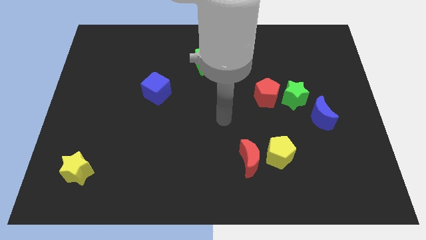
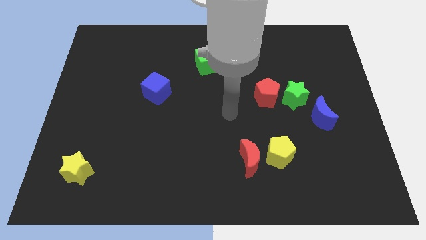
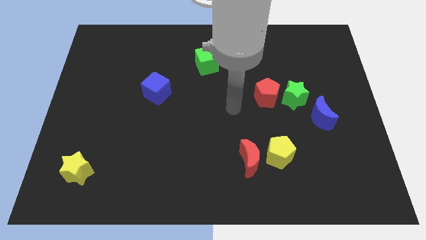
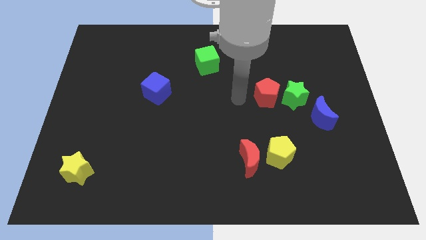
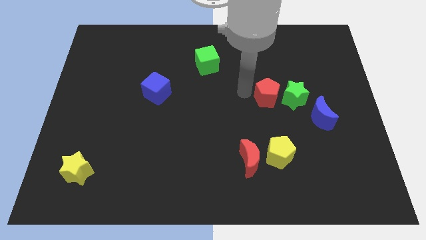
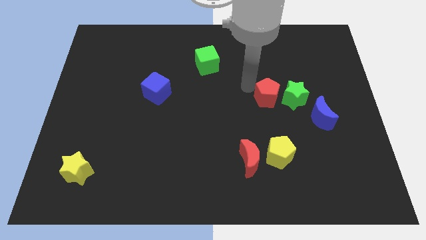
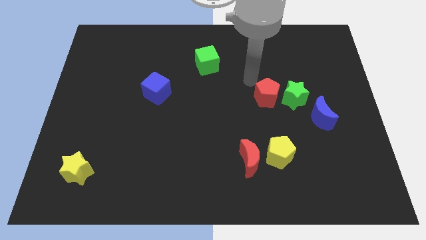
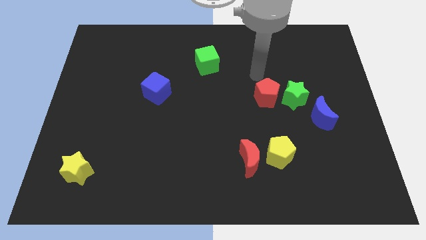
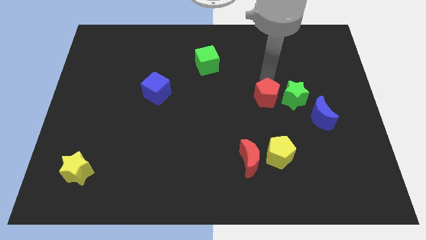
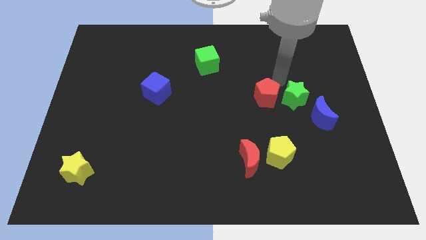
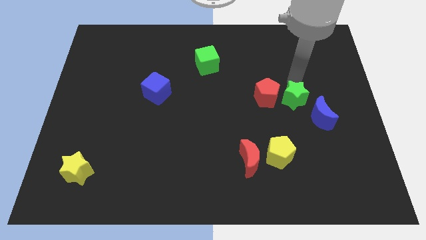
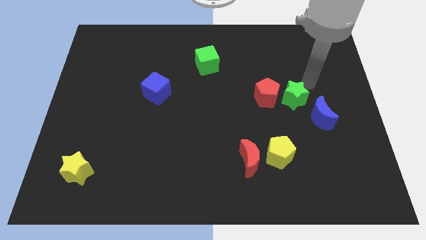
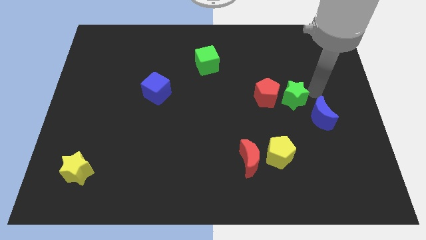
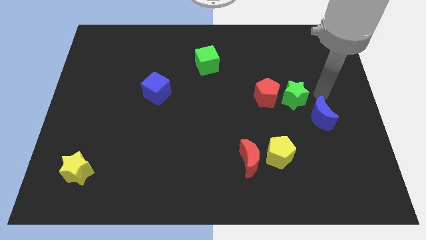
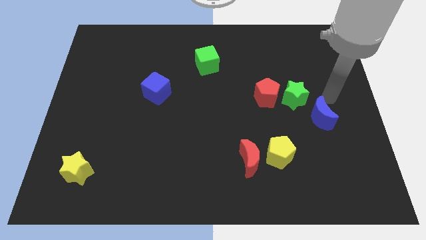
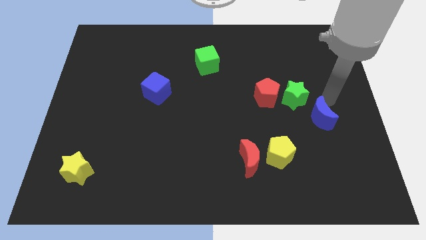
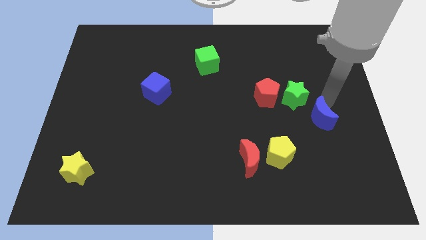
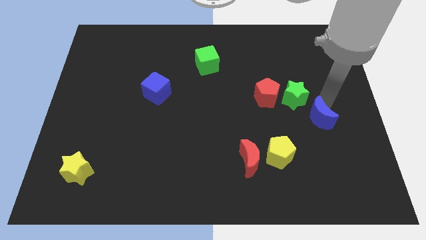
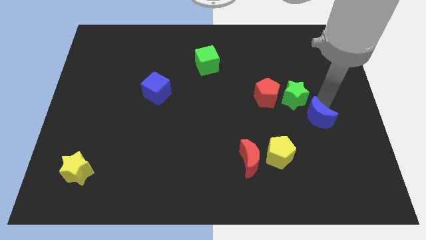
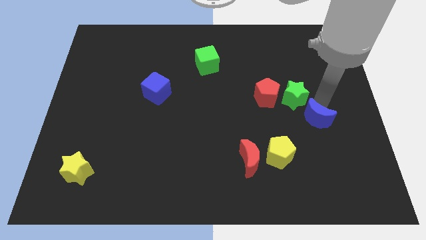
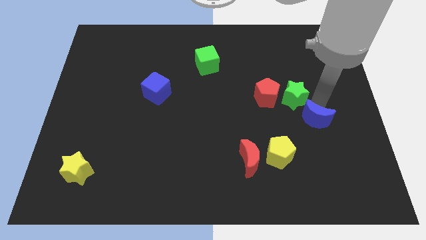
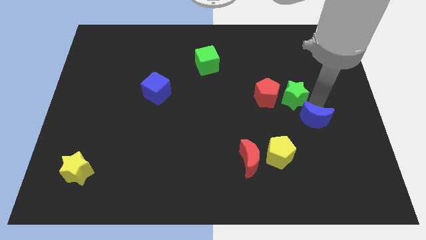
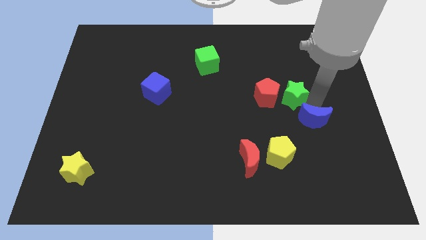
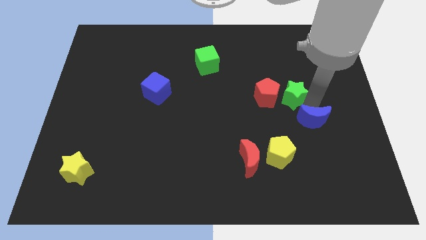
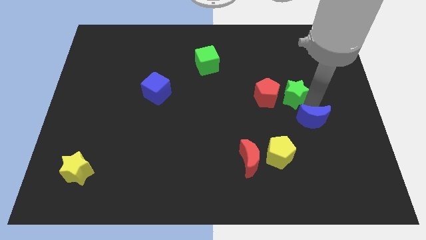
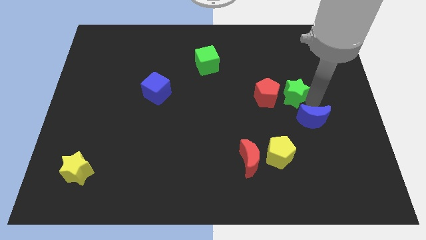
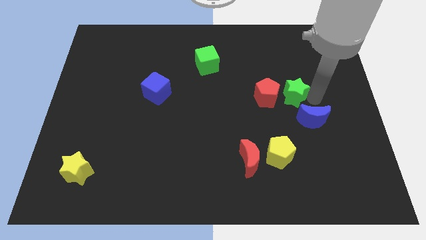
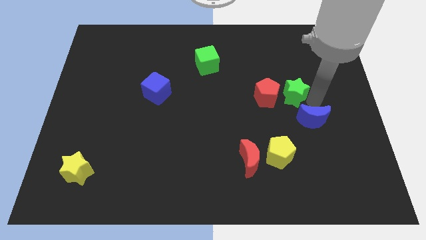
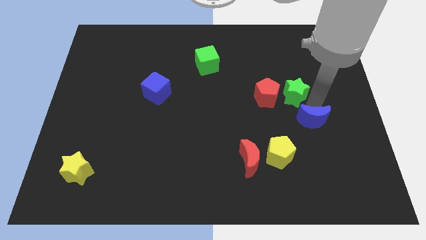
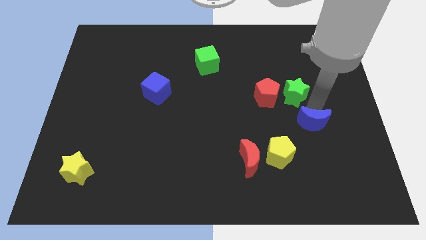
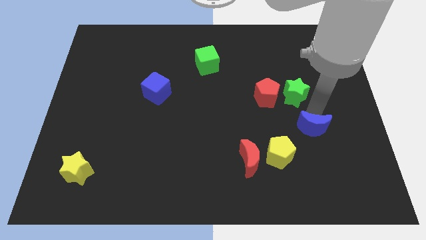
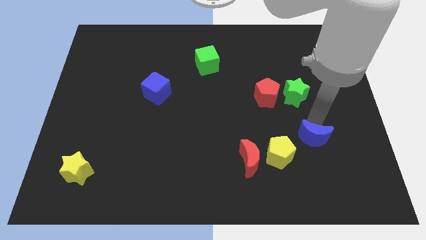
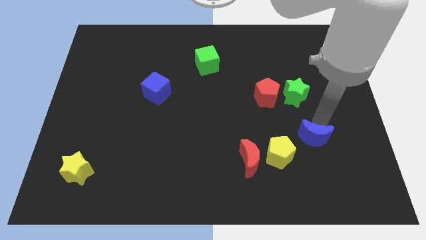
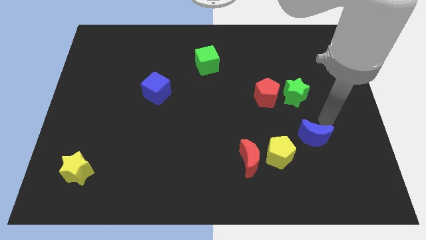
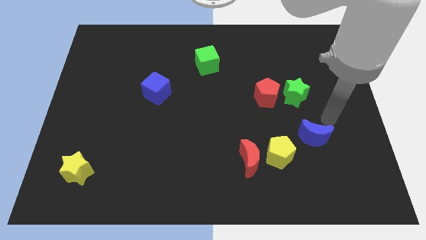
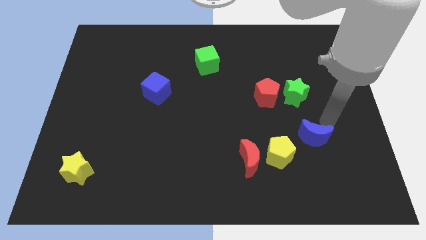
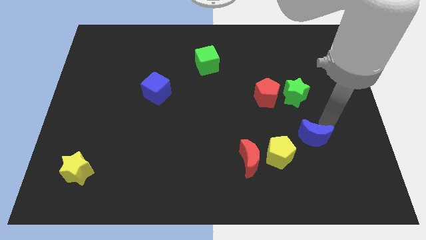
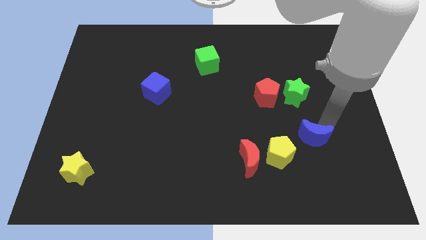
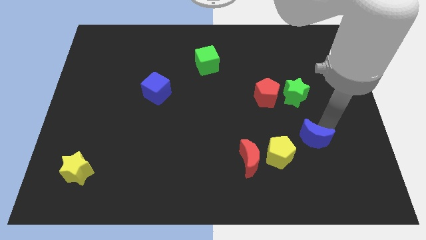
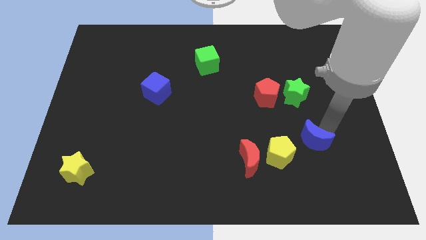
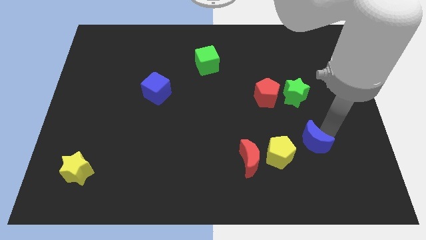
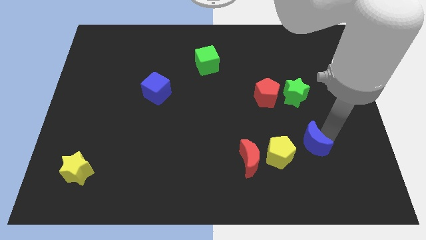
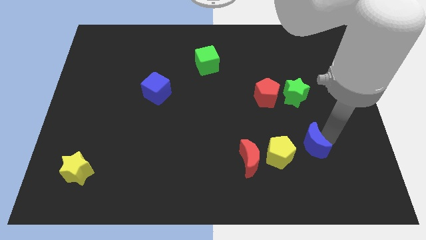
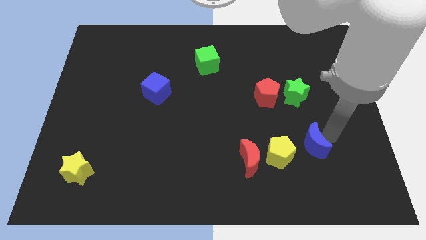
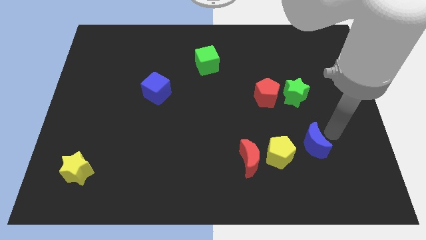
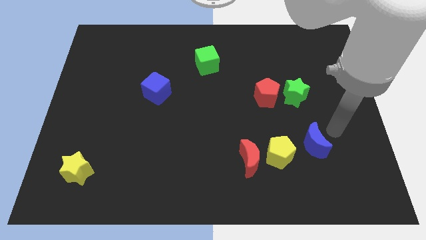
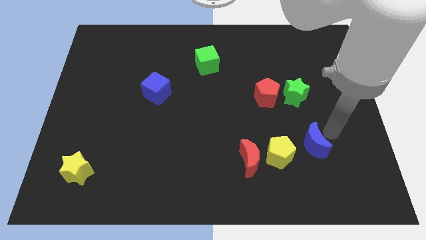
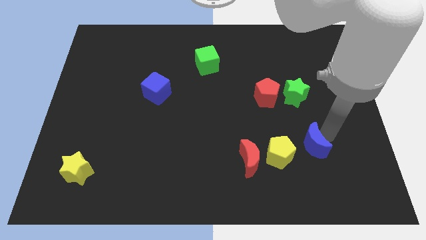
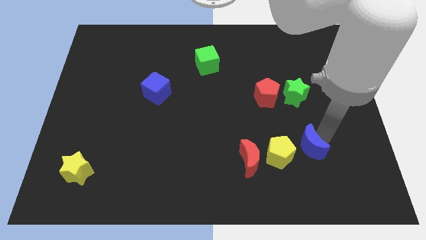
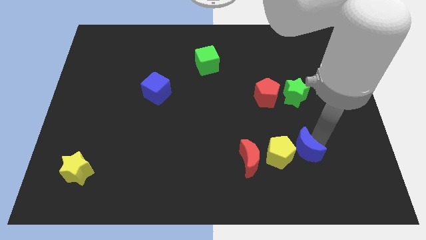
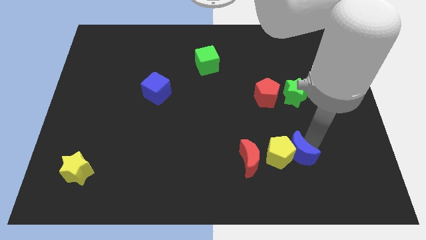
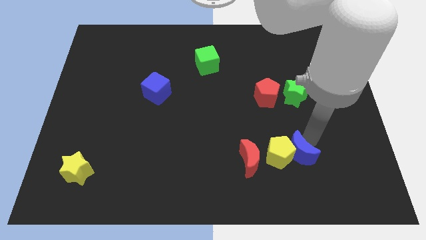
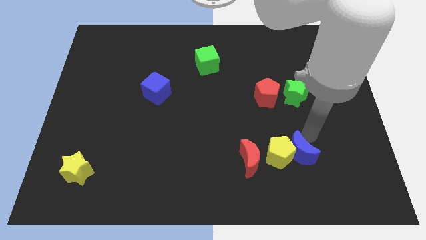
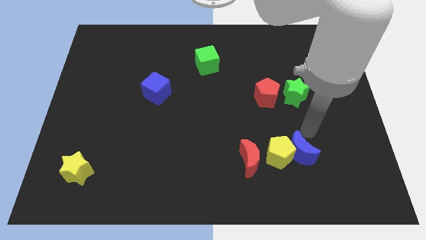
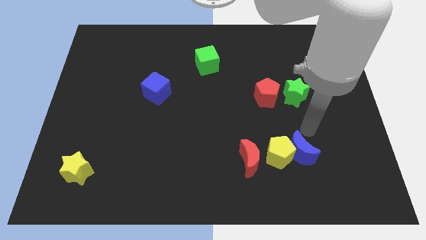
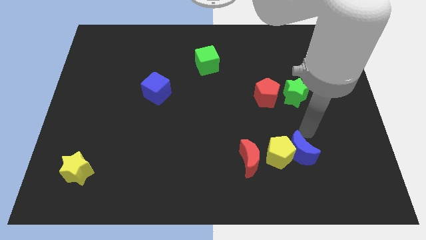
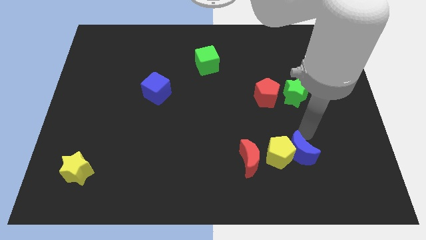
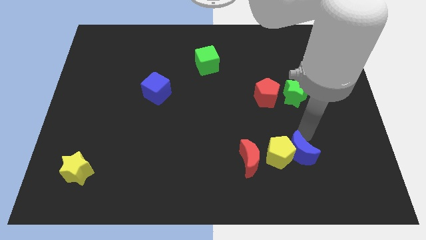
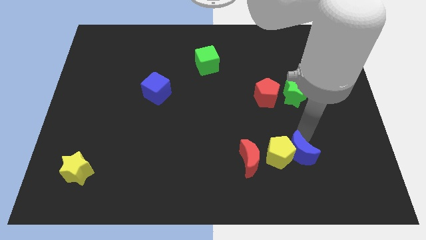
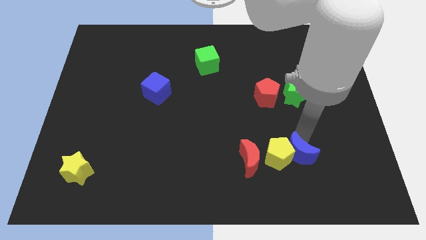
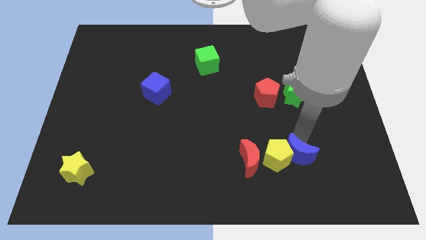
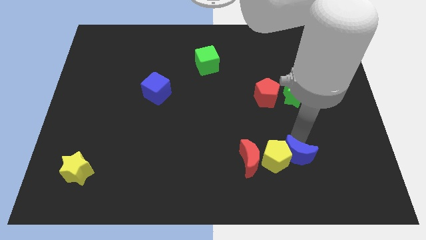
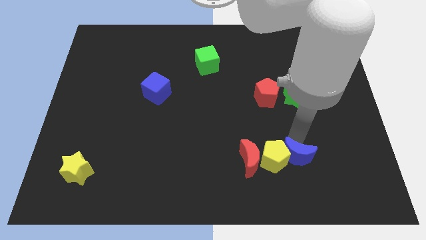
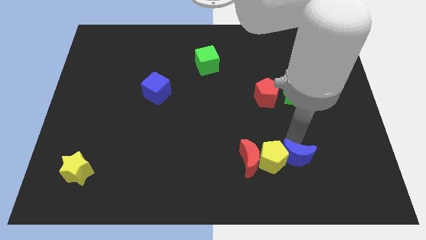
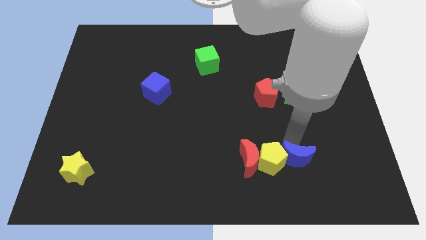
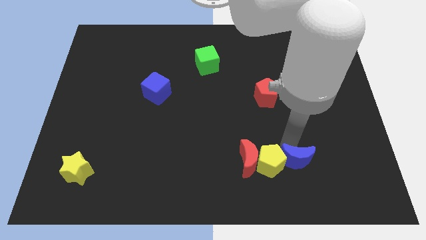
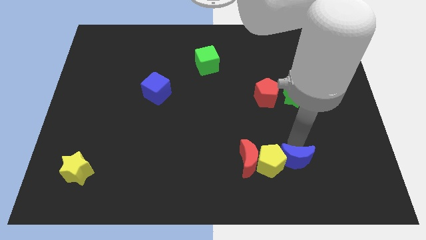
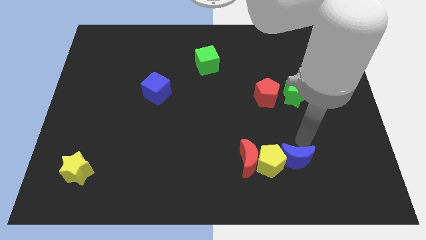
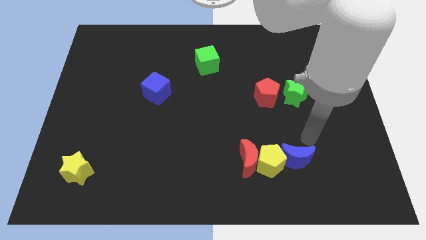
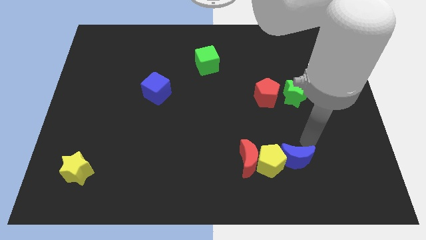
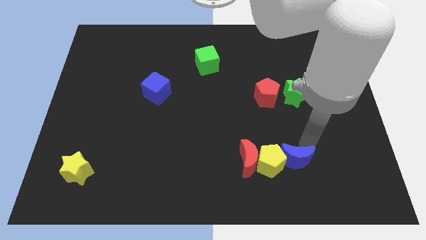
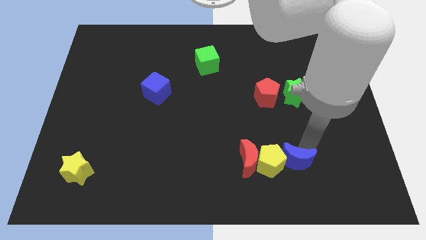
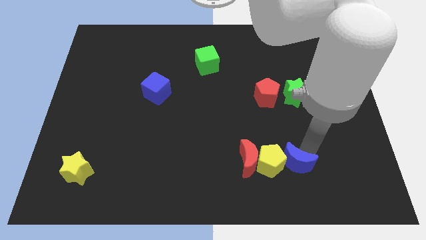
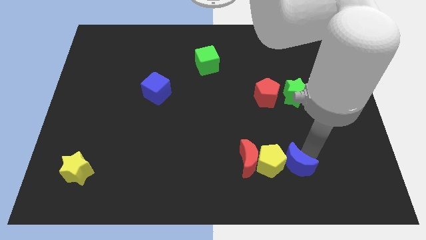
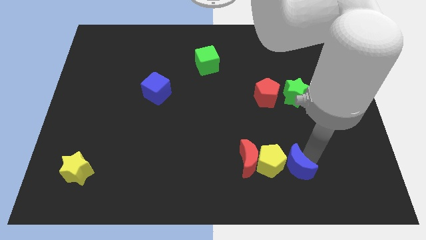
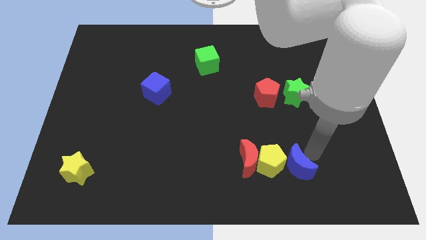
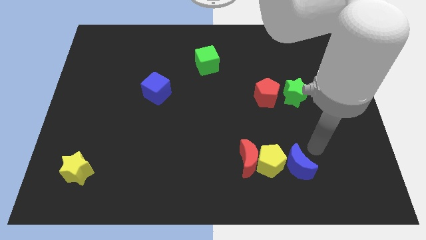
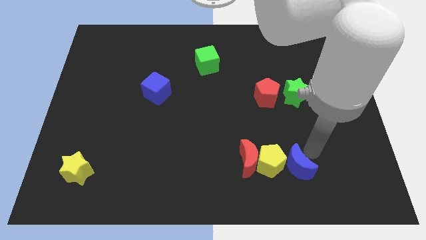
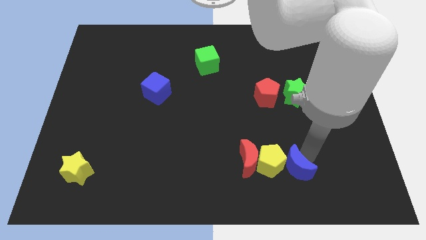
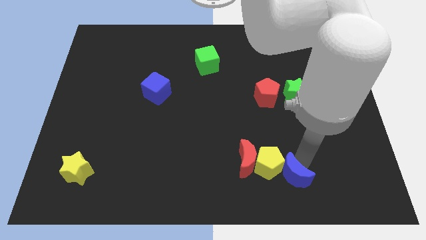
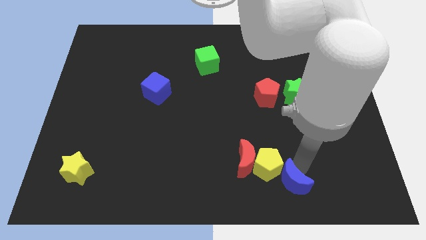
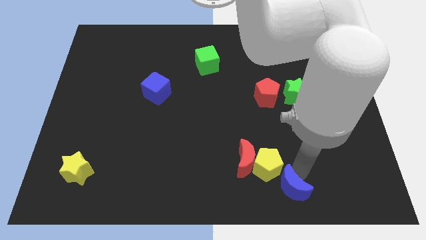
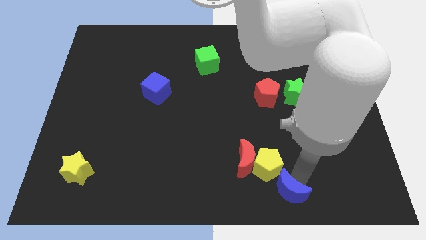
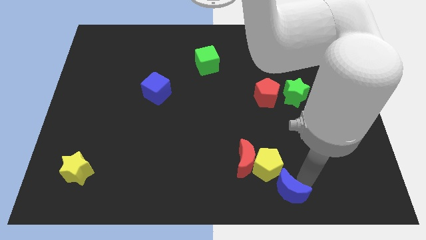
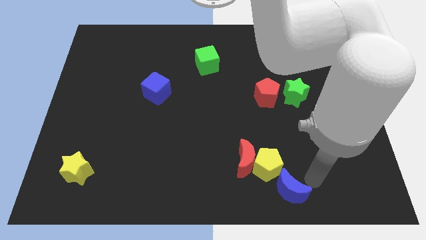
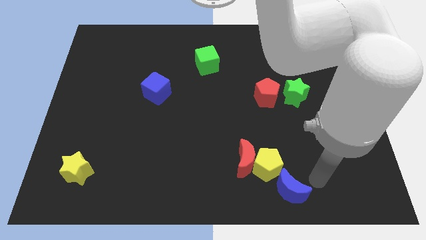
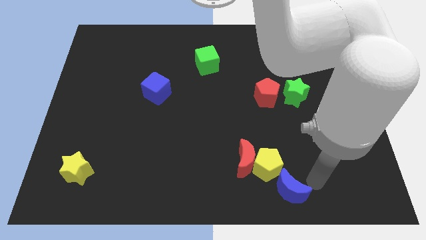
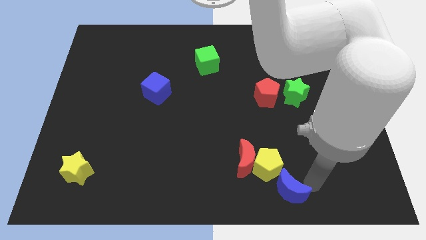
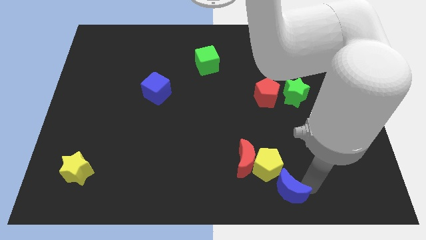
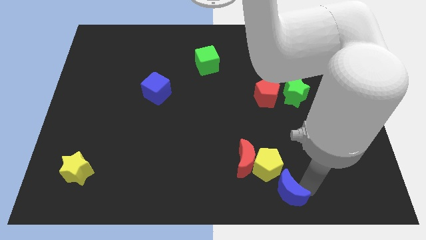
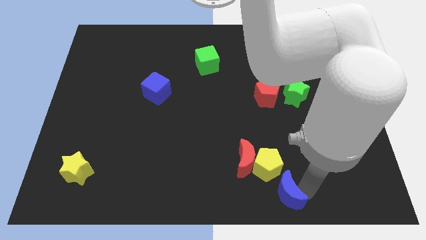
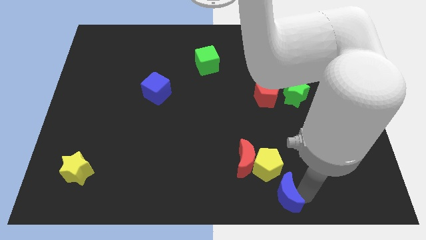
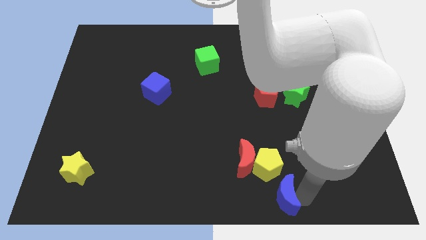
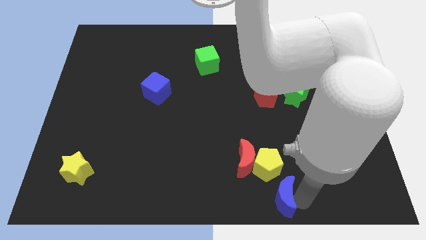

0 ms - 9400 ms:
put the blue moon to the bottom
